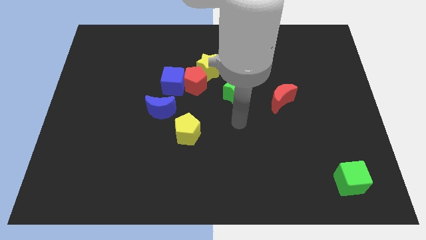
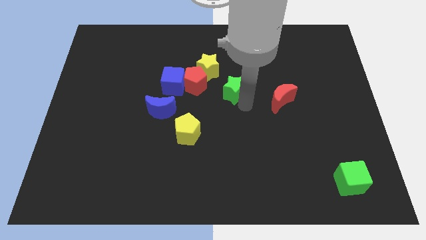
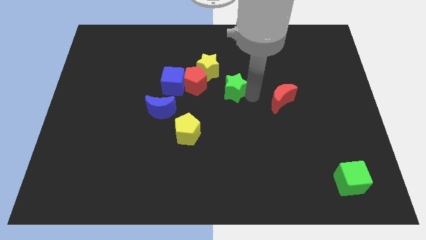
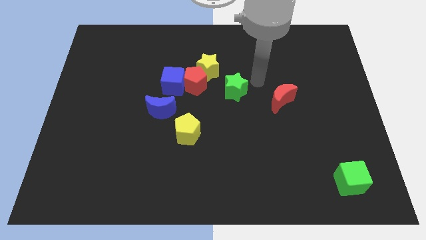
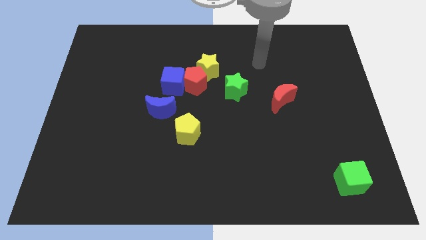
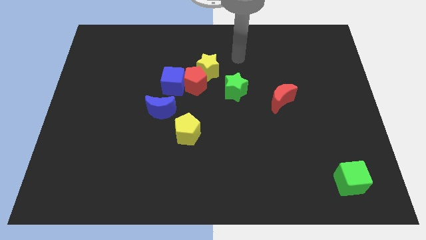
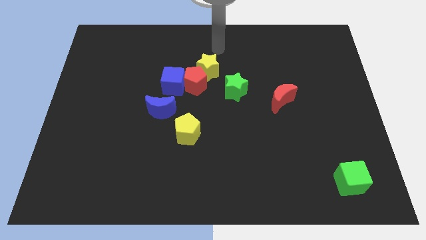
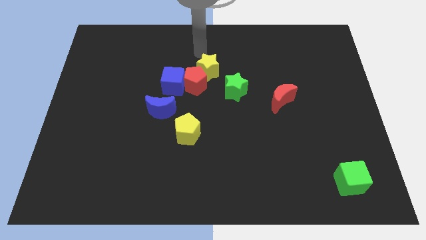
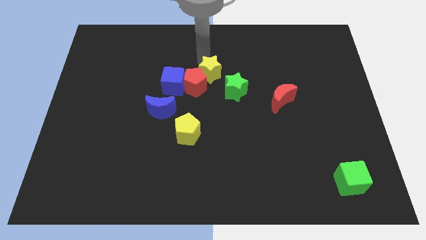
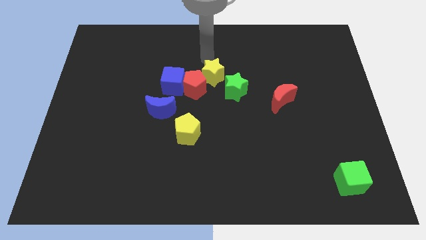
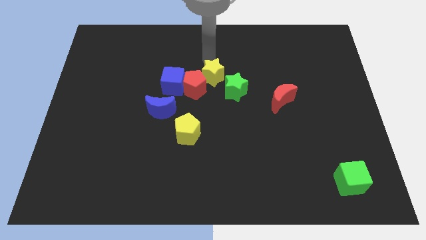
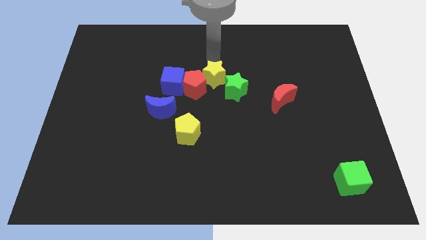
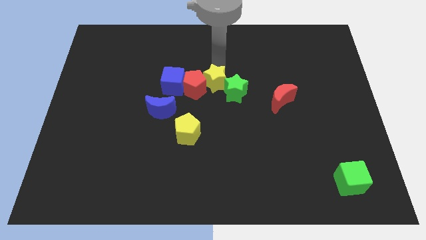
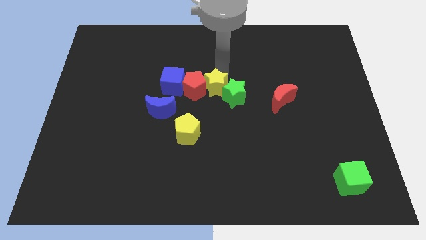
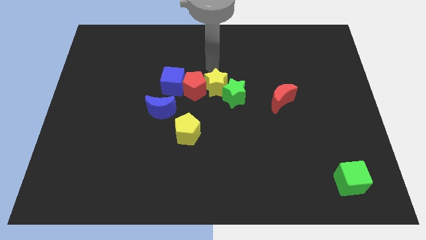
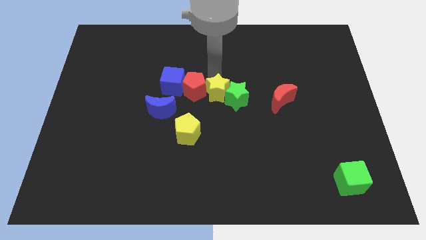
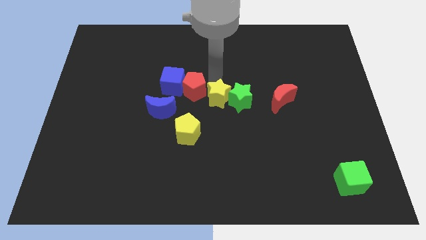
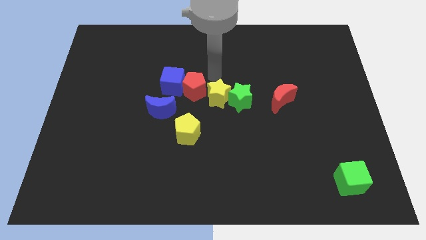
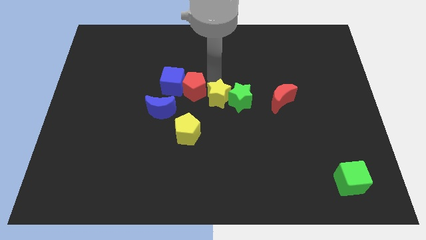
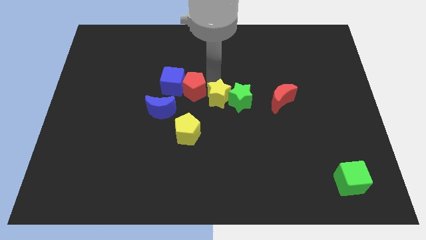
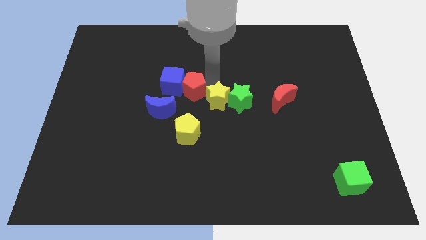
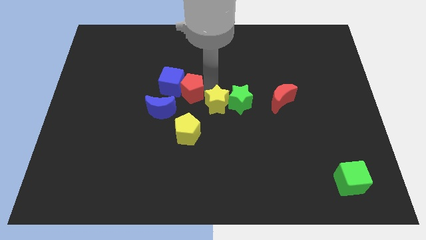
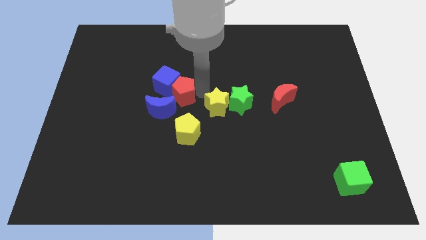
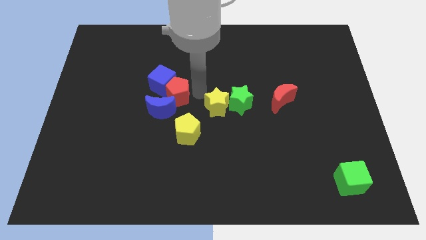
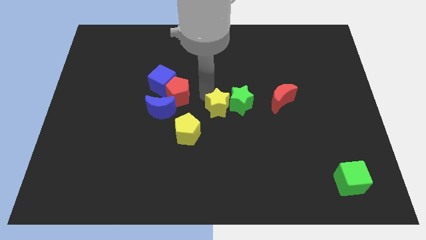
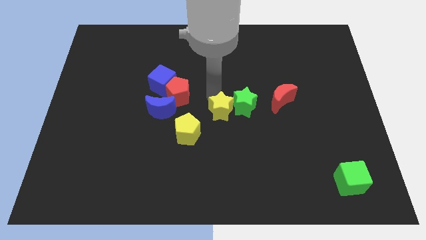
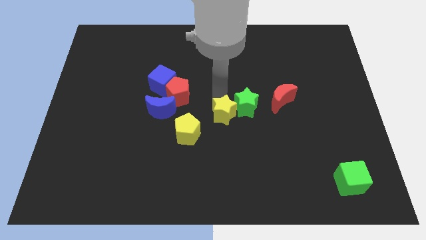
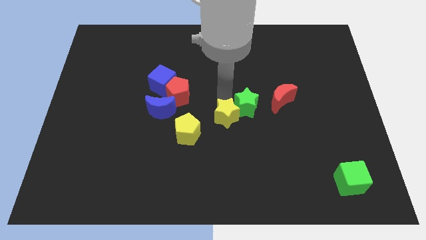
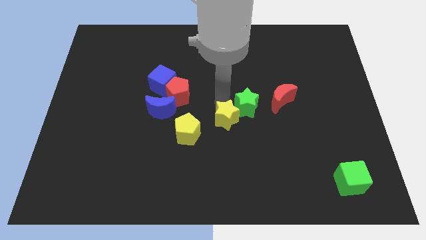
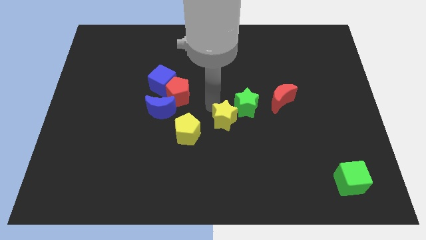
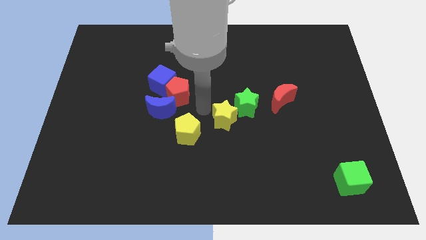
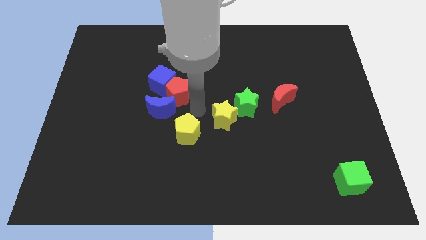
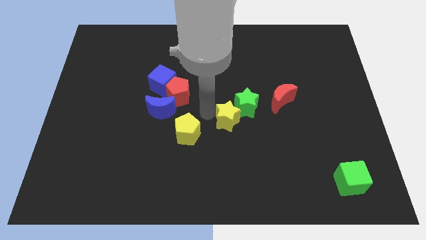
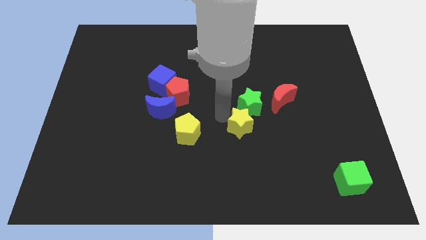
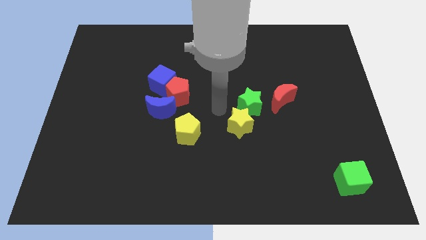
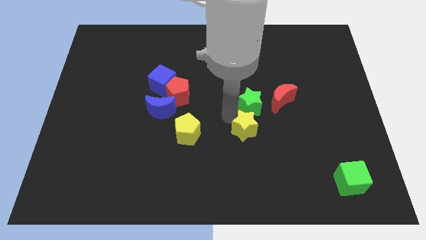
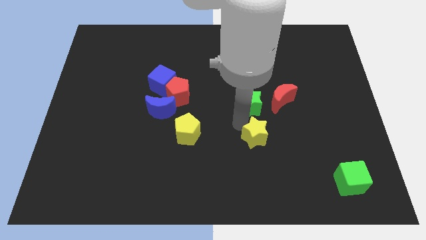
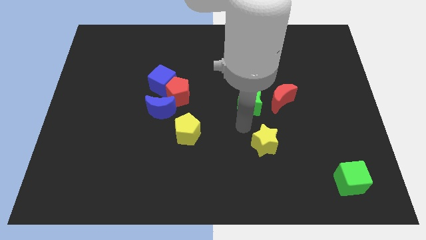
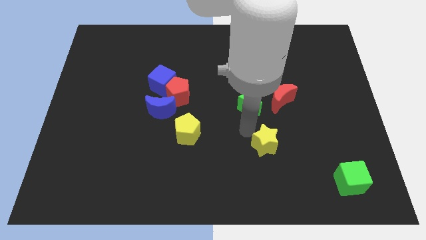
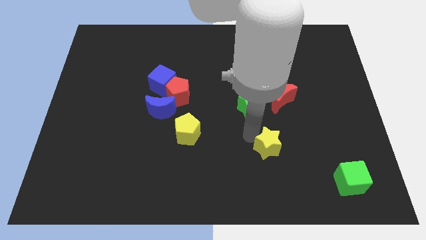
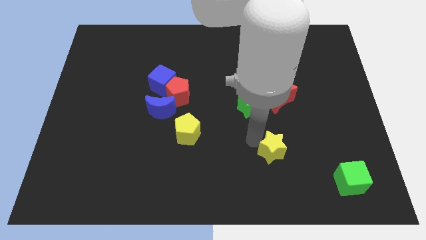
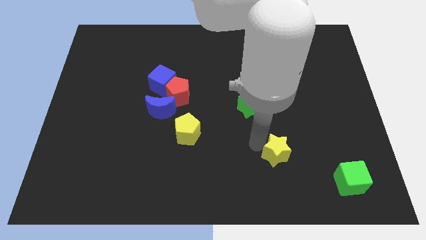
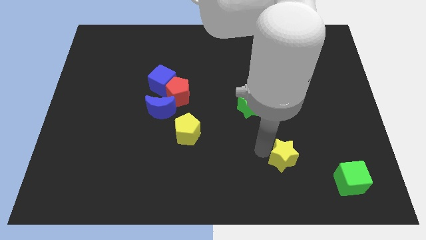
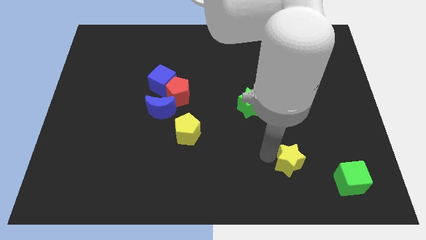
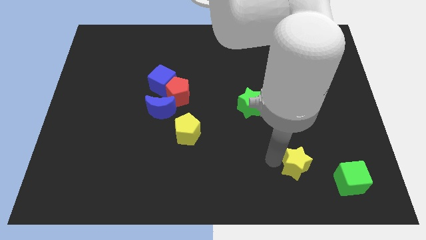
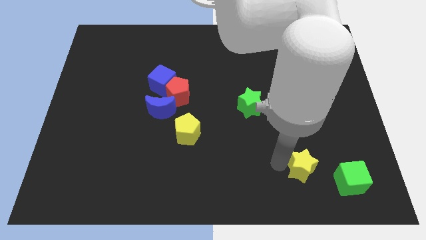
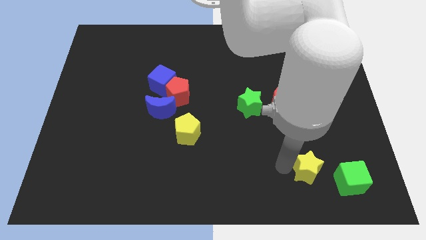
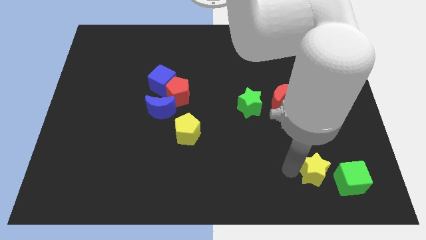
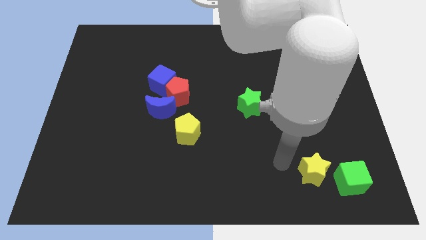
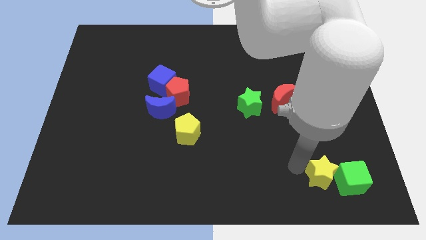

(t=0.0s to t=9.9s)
put the yellow star next to the green cube

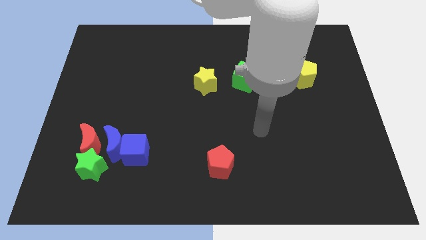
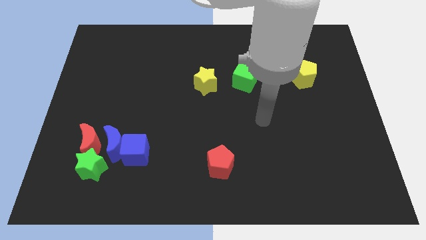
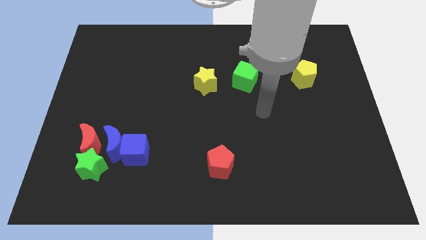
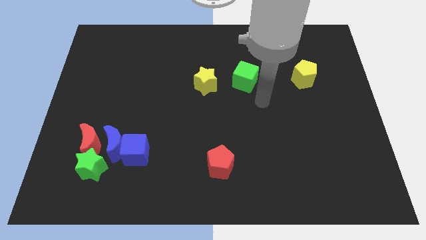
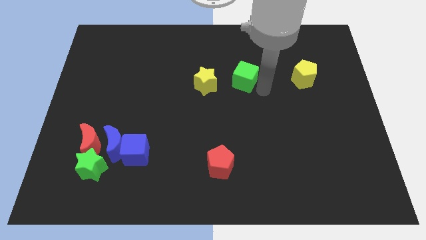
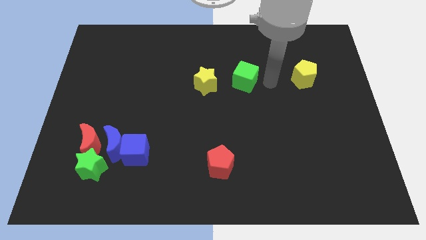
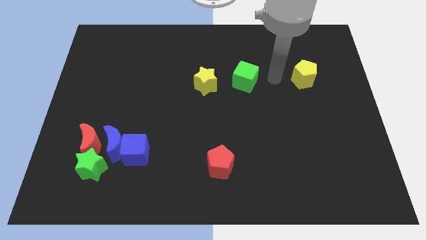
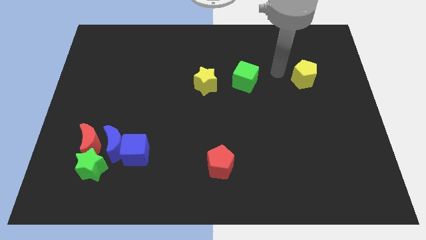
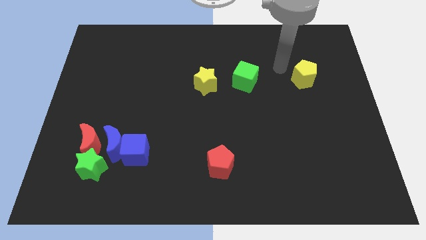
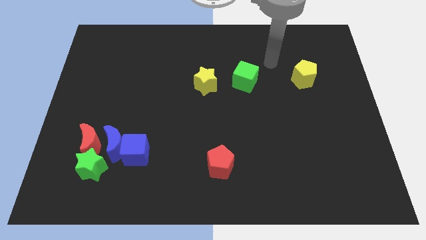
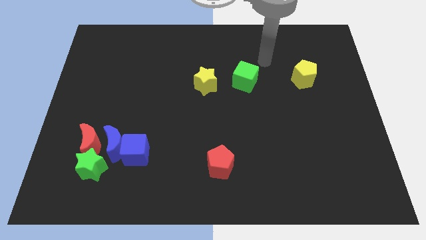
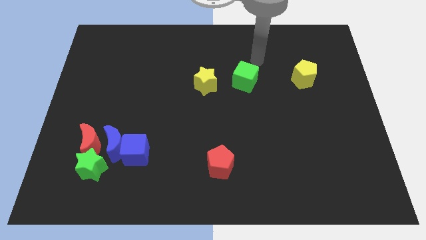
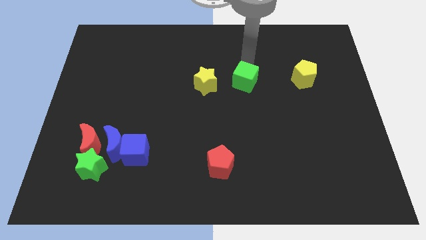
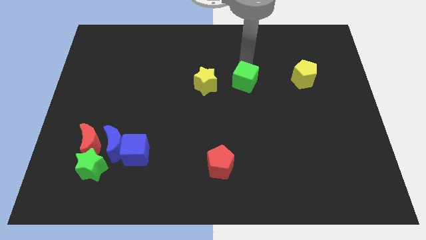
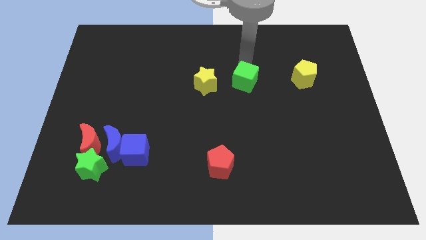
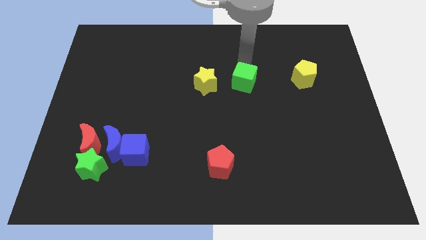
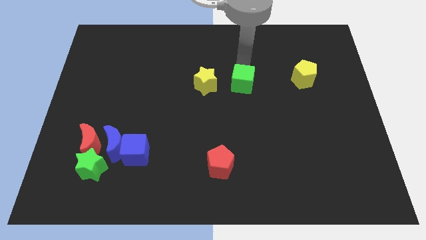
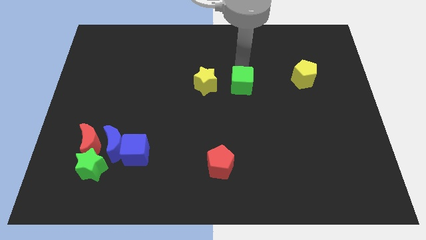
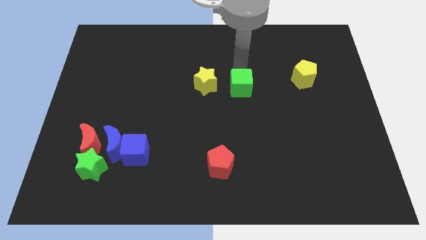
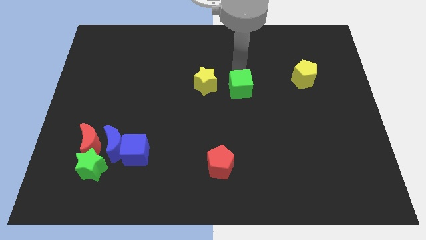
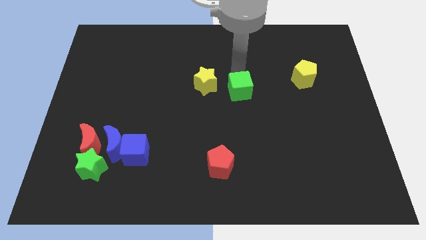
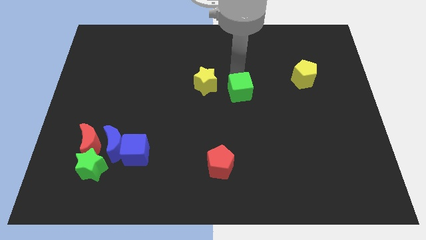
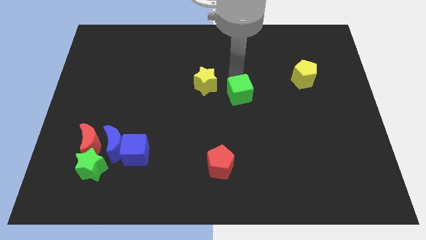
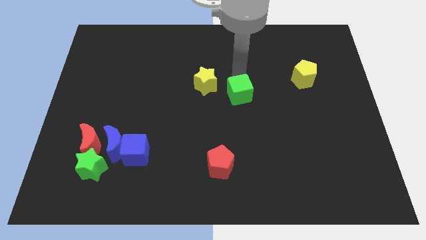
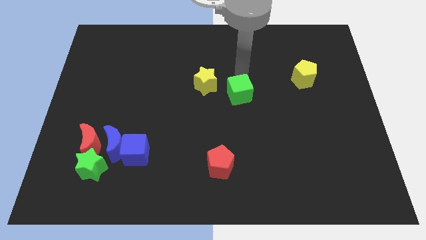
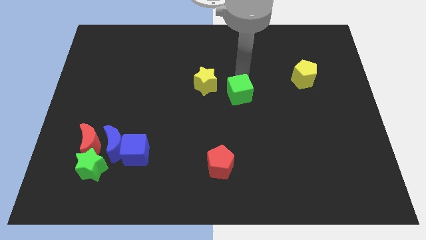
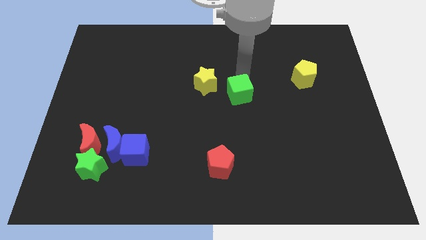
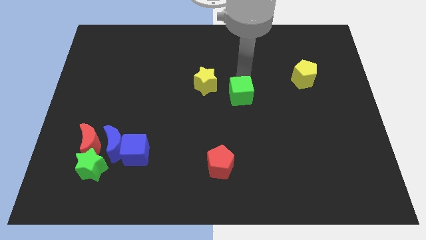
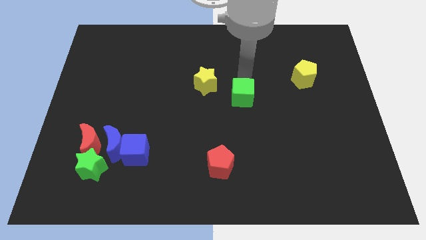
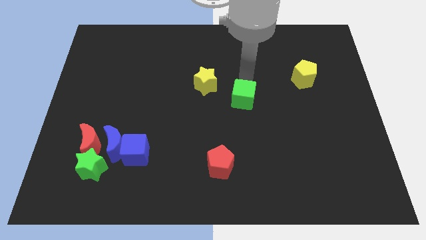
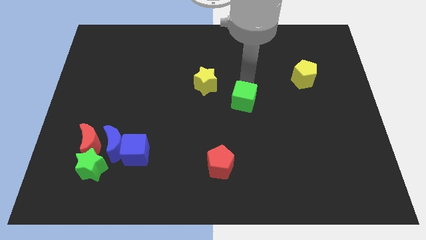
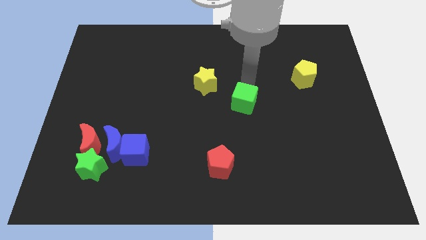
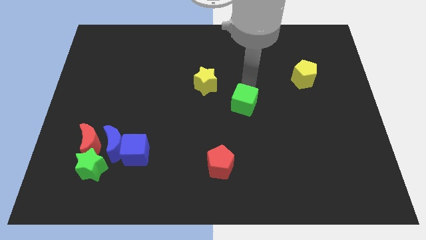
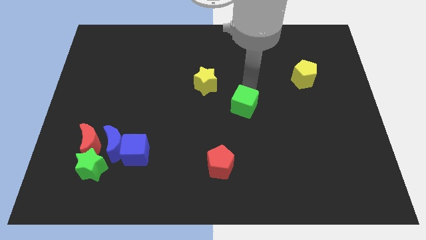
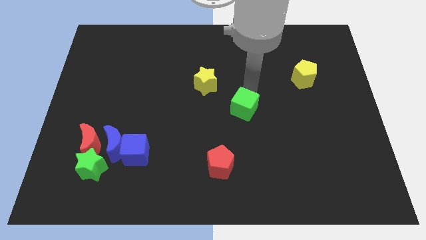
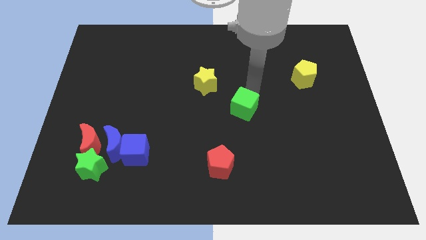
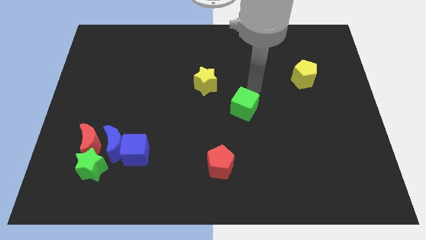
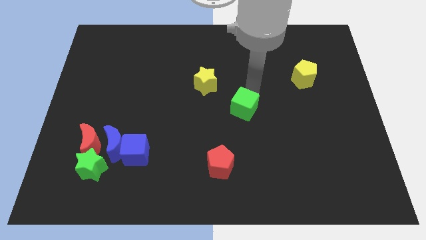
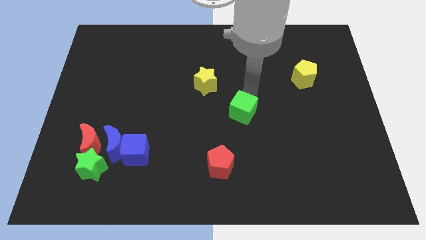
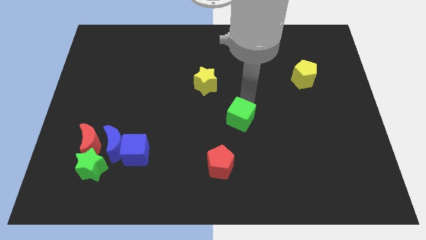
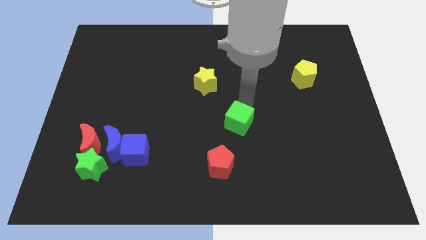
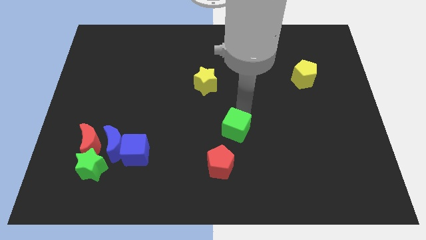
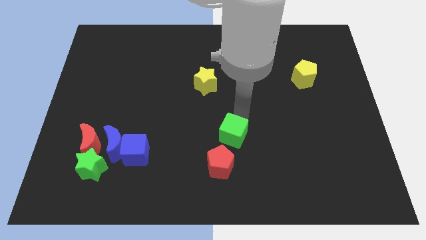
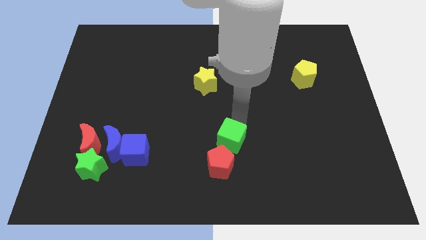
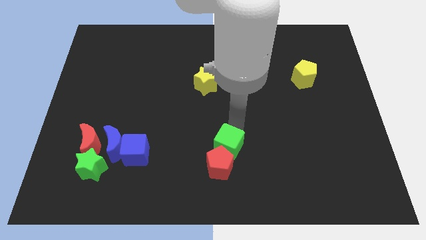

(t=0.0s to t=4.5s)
slide the green cube next to the red pentagon
